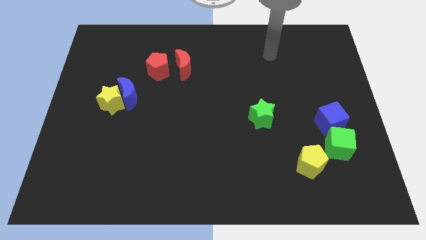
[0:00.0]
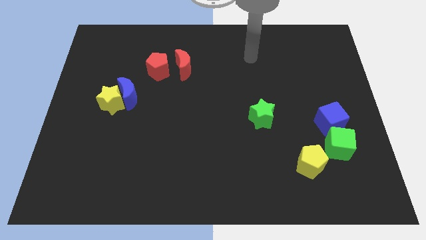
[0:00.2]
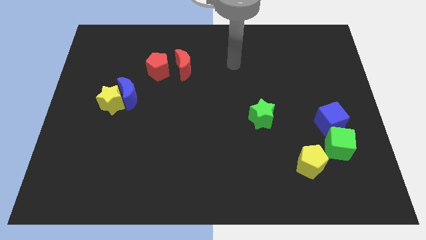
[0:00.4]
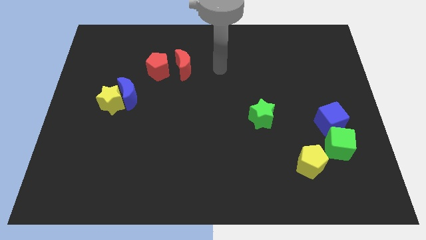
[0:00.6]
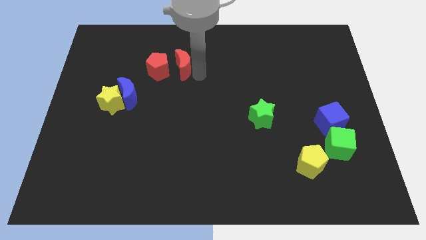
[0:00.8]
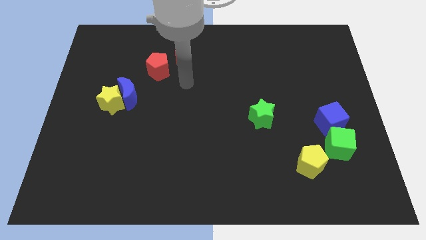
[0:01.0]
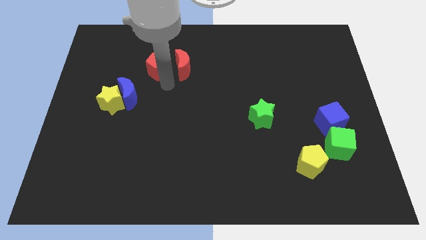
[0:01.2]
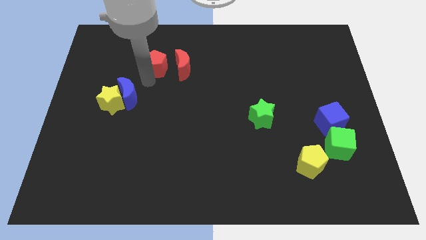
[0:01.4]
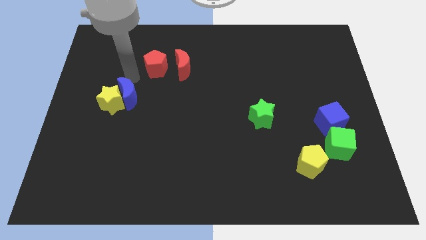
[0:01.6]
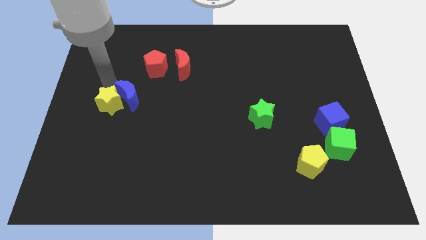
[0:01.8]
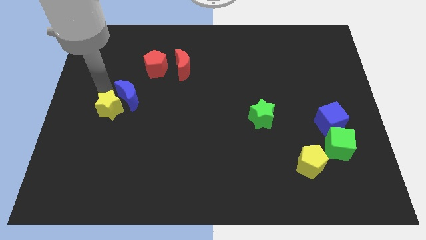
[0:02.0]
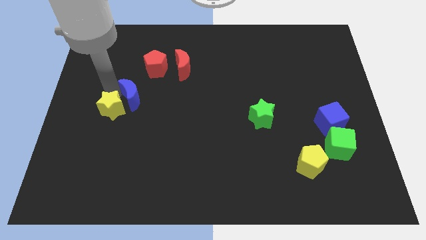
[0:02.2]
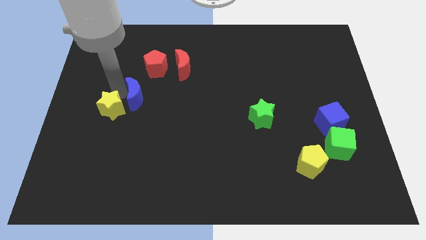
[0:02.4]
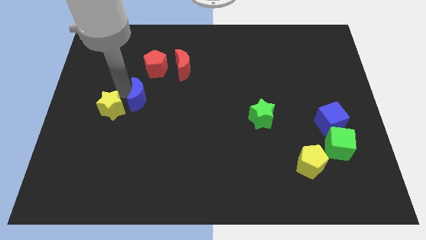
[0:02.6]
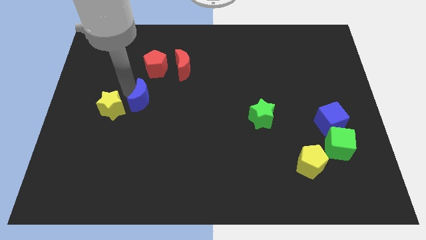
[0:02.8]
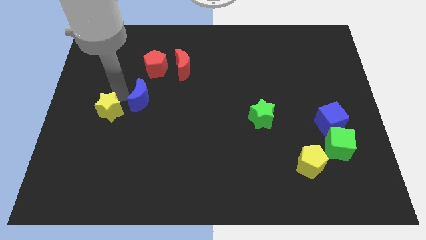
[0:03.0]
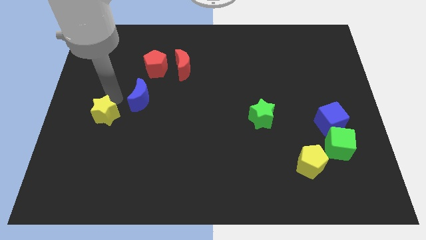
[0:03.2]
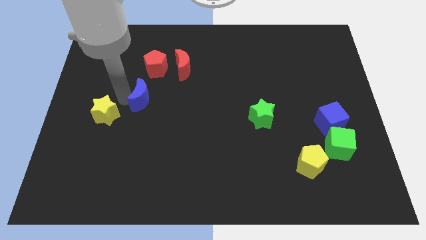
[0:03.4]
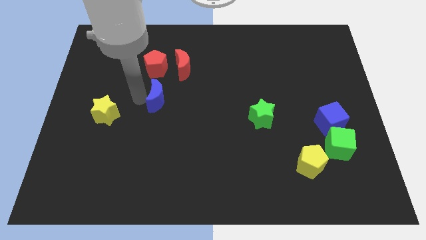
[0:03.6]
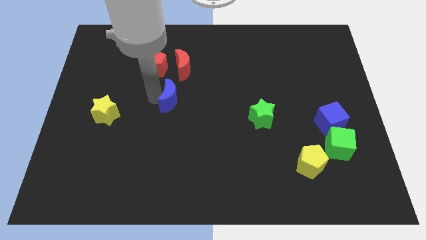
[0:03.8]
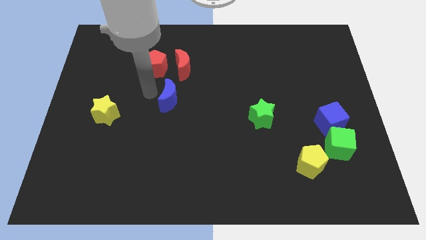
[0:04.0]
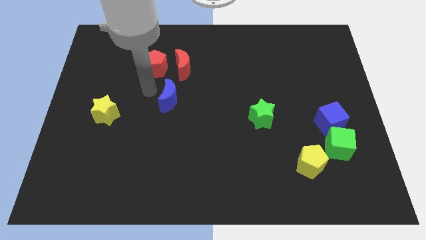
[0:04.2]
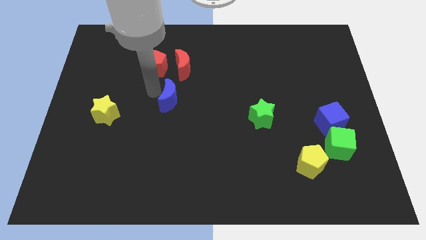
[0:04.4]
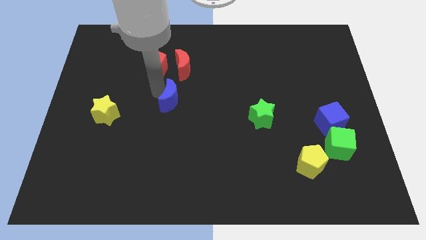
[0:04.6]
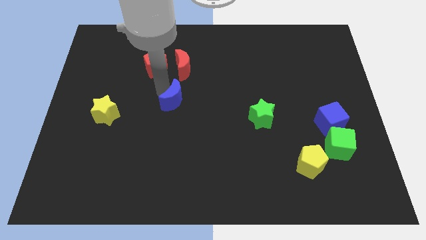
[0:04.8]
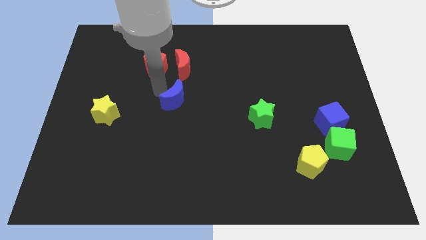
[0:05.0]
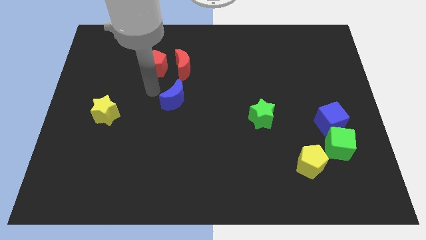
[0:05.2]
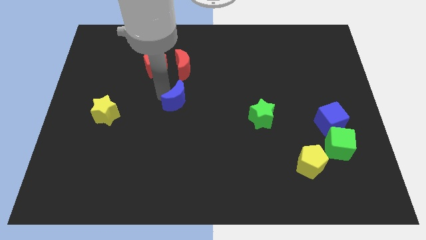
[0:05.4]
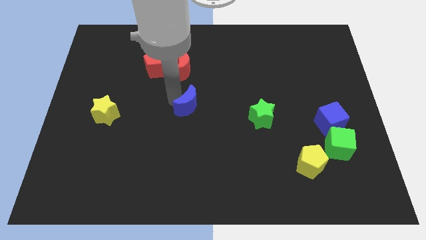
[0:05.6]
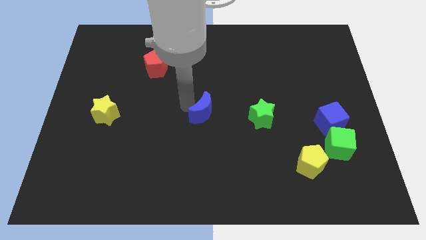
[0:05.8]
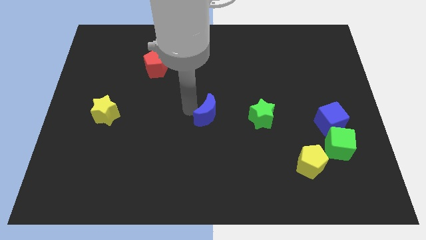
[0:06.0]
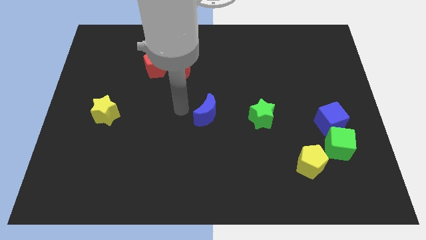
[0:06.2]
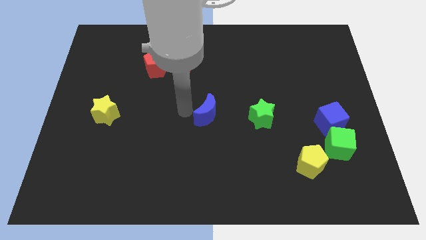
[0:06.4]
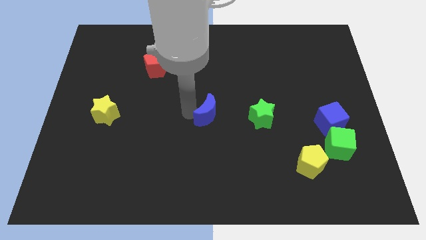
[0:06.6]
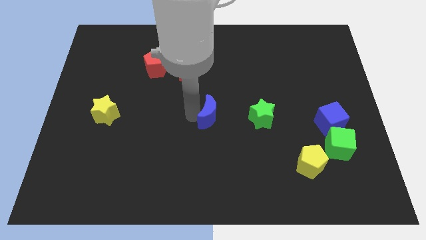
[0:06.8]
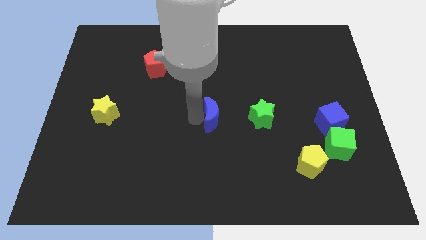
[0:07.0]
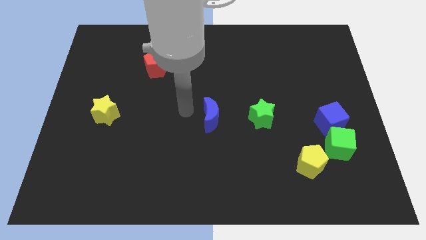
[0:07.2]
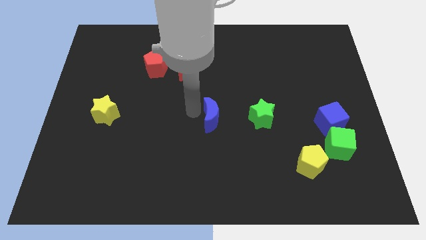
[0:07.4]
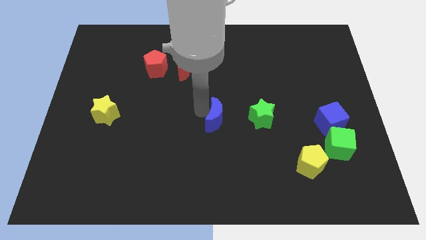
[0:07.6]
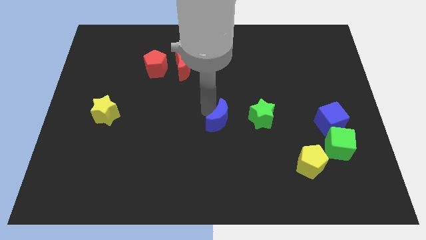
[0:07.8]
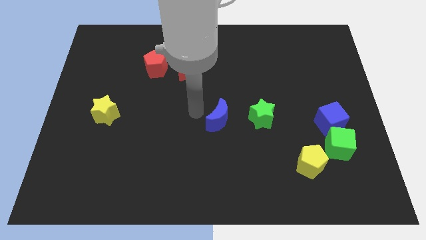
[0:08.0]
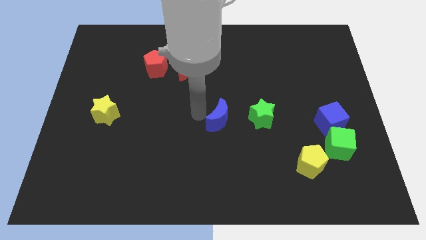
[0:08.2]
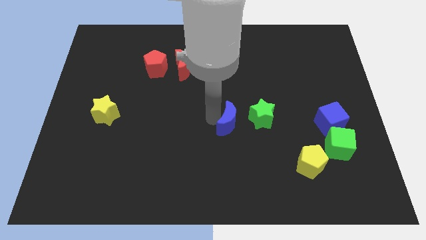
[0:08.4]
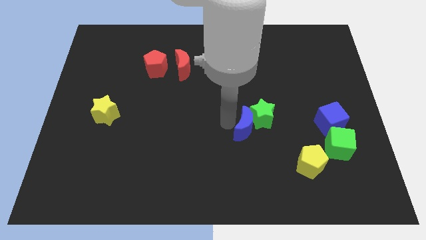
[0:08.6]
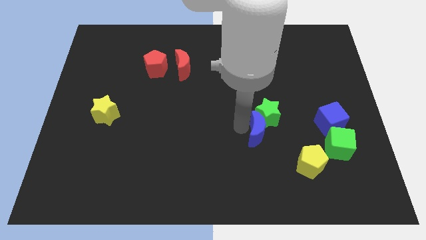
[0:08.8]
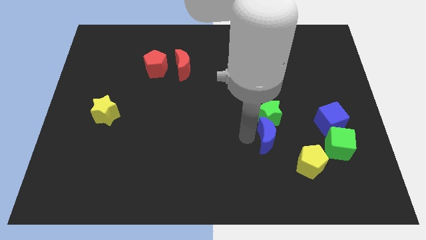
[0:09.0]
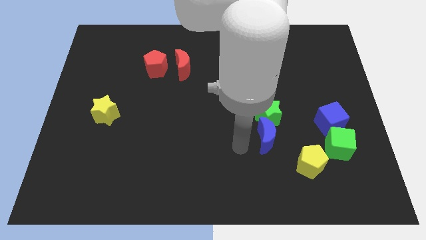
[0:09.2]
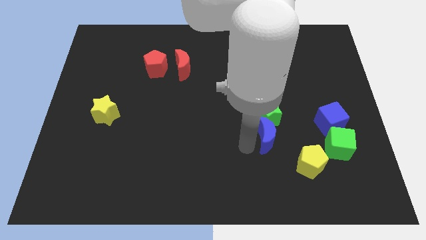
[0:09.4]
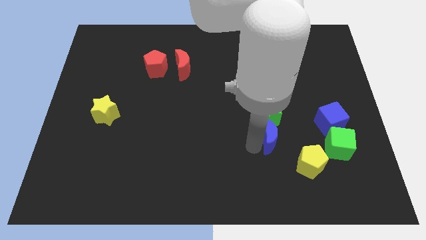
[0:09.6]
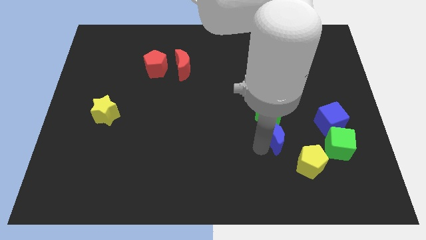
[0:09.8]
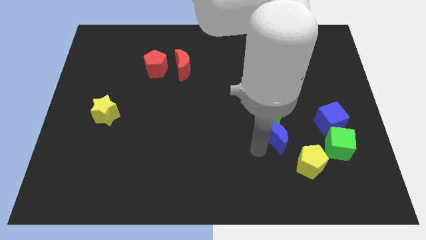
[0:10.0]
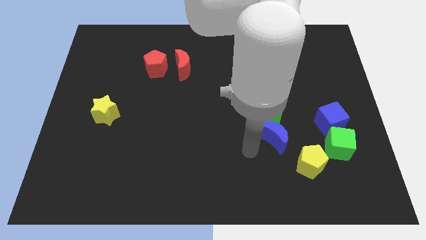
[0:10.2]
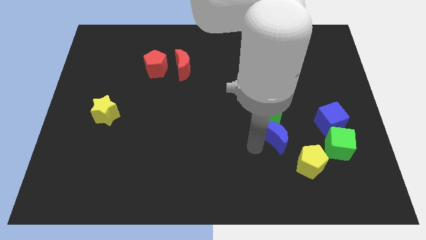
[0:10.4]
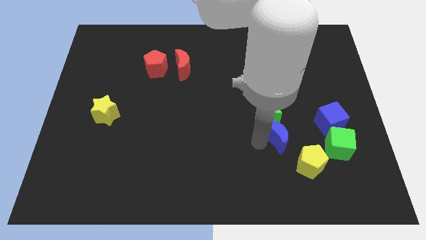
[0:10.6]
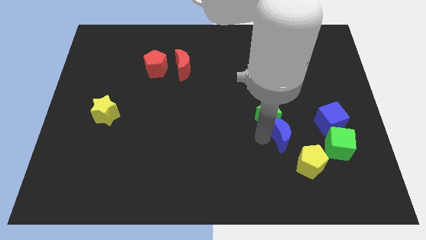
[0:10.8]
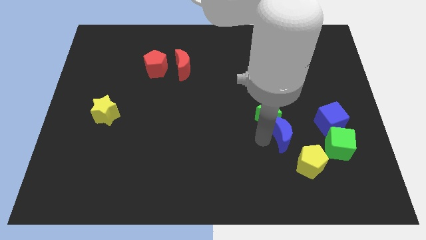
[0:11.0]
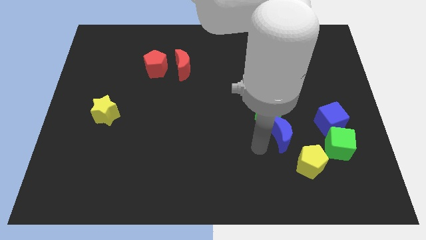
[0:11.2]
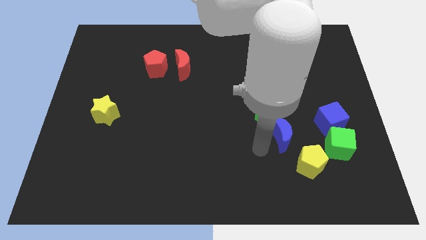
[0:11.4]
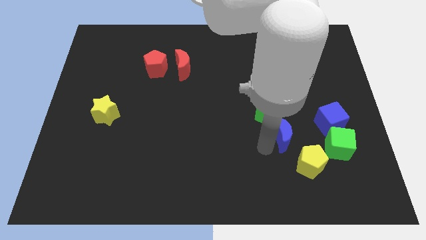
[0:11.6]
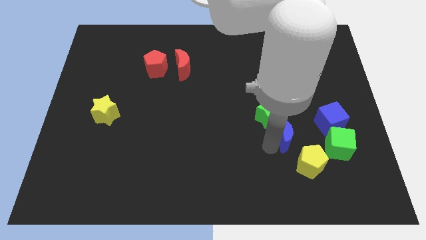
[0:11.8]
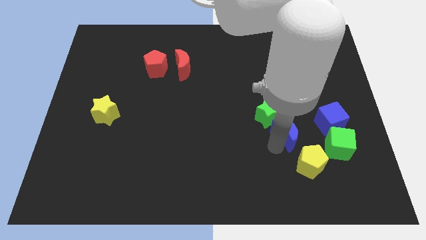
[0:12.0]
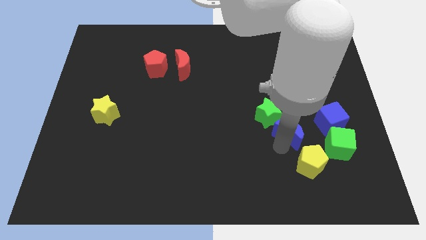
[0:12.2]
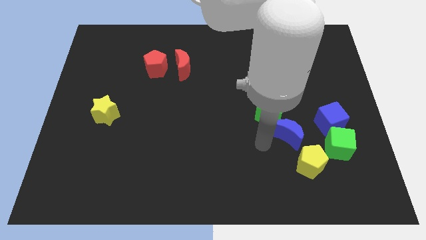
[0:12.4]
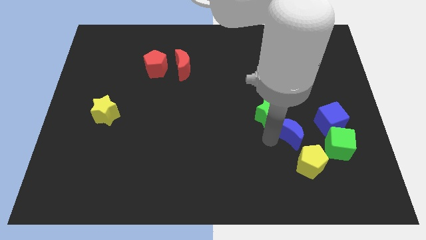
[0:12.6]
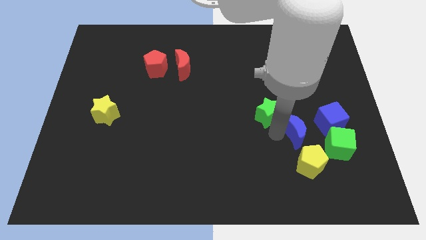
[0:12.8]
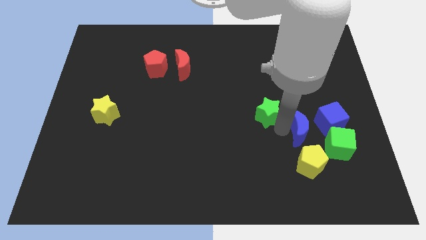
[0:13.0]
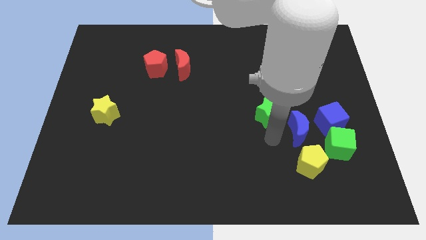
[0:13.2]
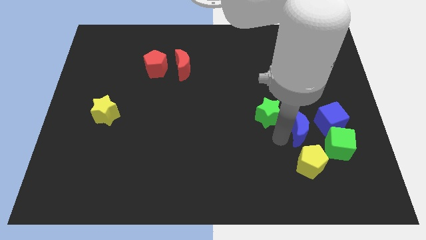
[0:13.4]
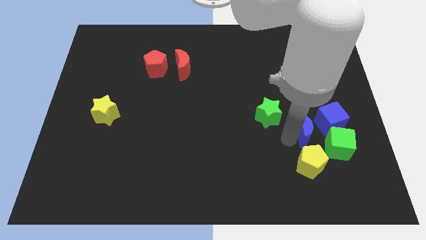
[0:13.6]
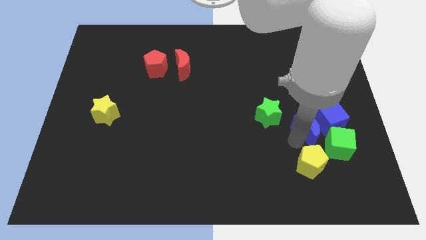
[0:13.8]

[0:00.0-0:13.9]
put the blue moon to the blue cube

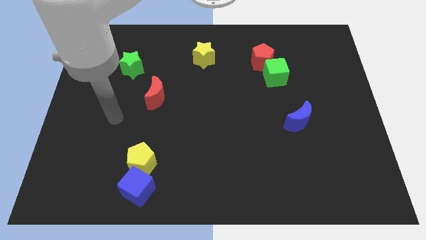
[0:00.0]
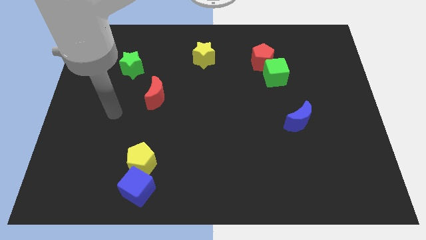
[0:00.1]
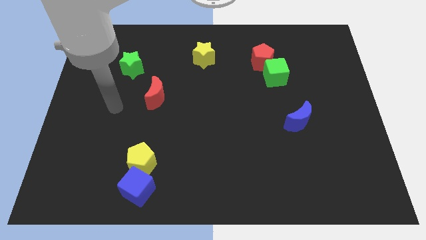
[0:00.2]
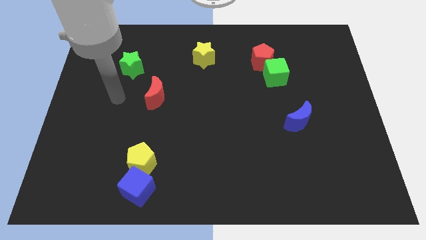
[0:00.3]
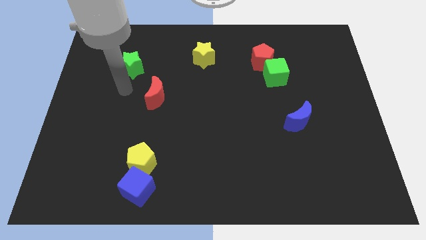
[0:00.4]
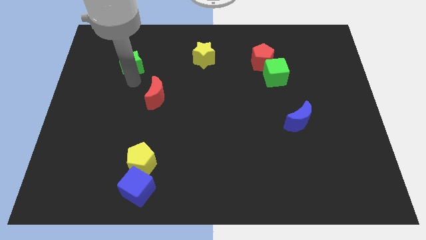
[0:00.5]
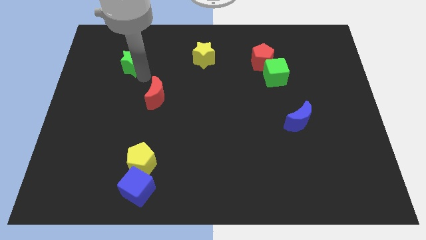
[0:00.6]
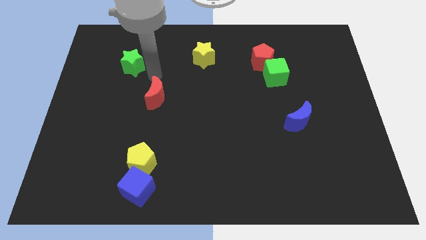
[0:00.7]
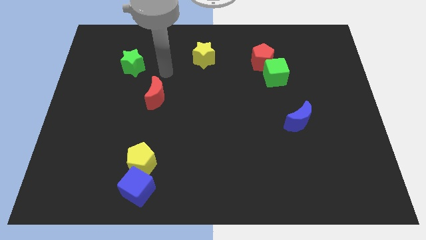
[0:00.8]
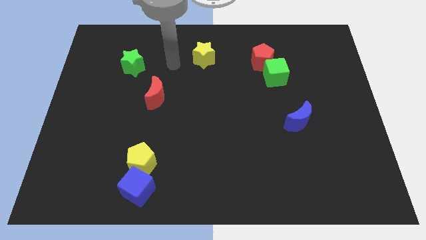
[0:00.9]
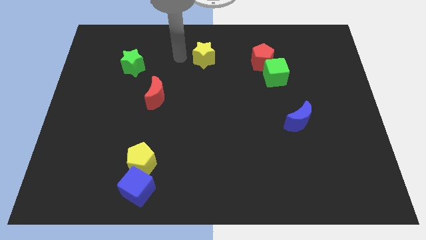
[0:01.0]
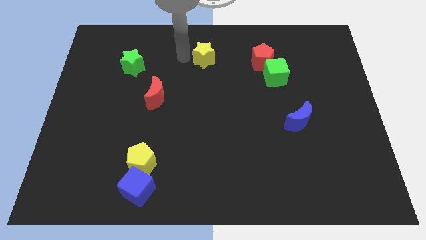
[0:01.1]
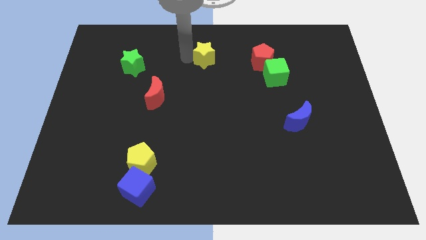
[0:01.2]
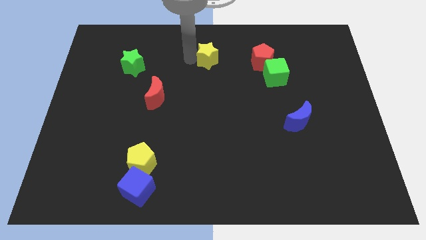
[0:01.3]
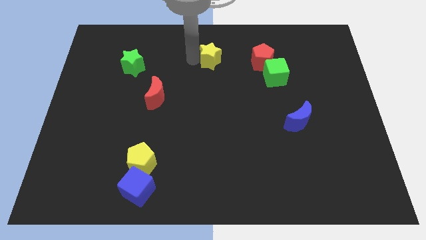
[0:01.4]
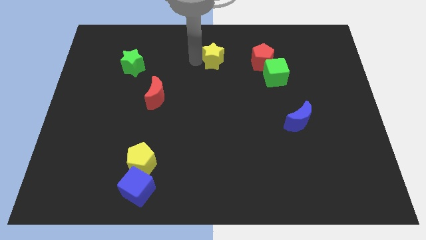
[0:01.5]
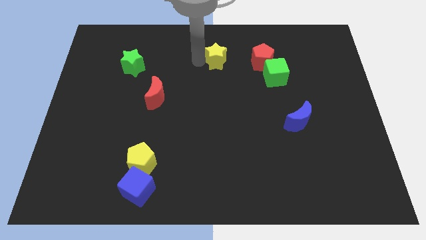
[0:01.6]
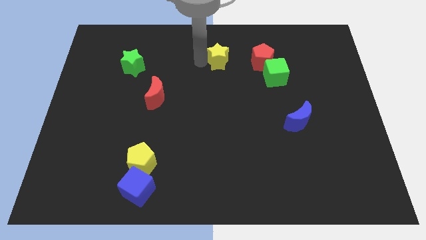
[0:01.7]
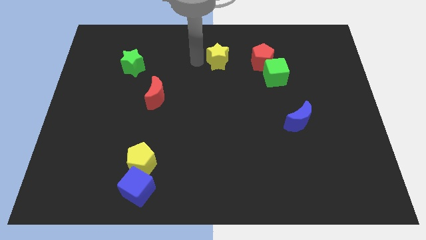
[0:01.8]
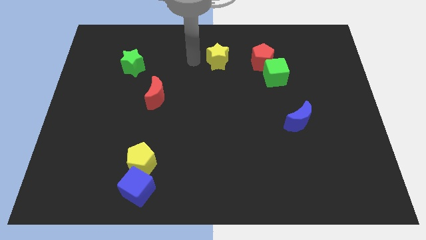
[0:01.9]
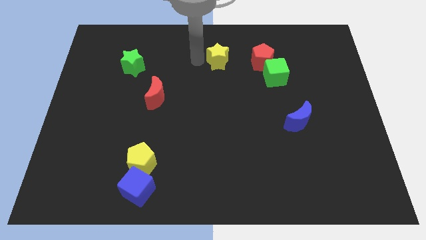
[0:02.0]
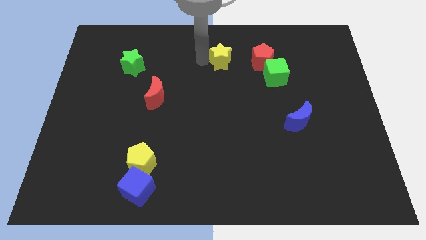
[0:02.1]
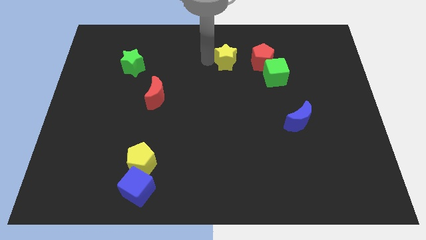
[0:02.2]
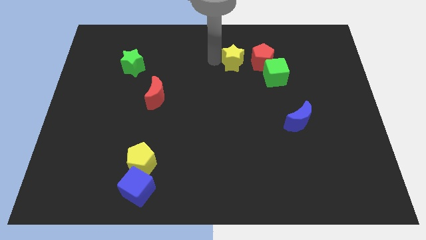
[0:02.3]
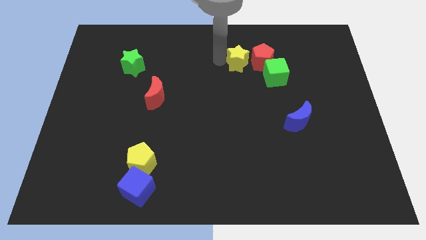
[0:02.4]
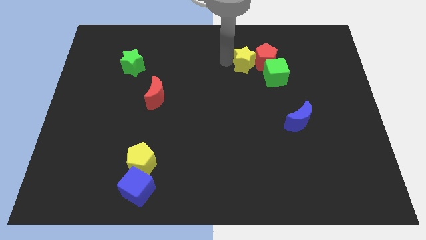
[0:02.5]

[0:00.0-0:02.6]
put the yellow star towards the red pentagon
